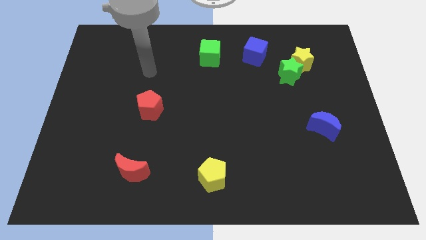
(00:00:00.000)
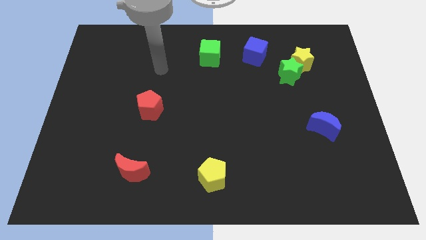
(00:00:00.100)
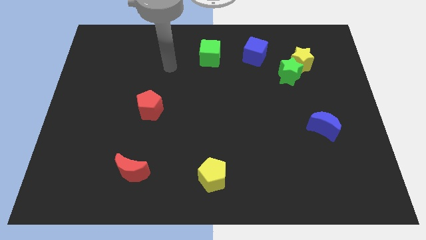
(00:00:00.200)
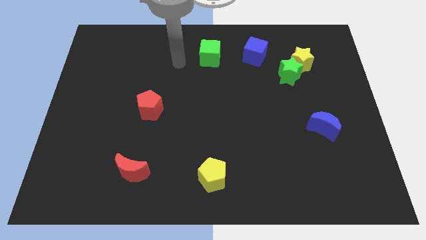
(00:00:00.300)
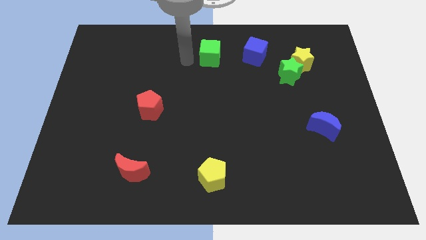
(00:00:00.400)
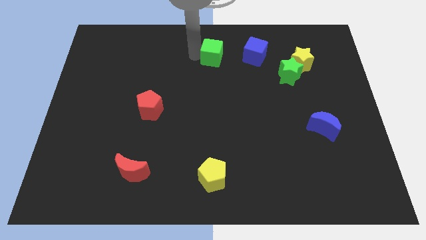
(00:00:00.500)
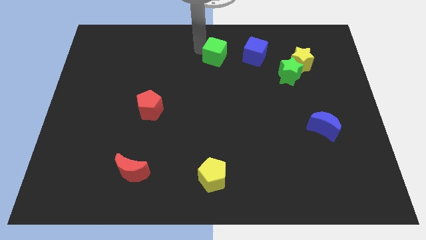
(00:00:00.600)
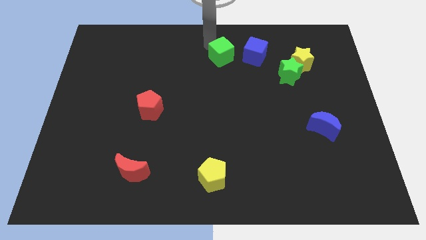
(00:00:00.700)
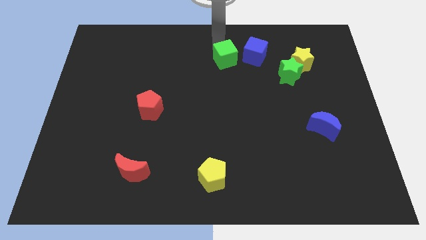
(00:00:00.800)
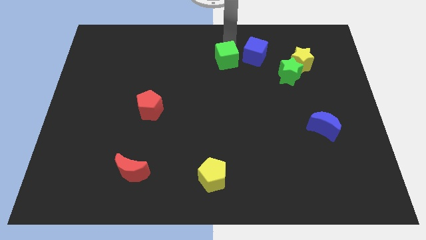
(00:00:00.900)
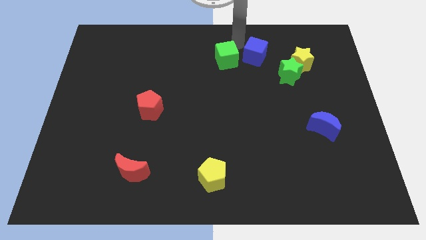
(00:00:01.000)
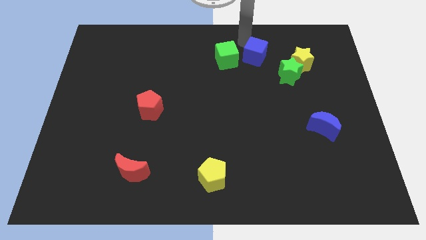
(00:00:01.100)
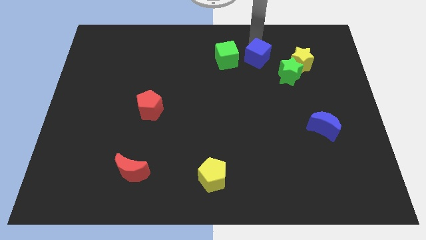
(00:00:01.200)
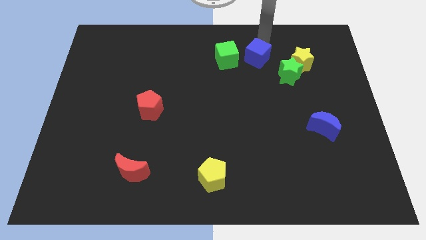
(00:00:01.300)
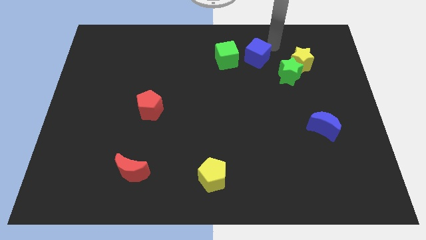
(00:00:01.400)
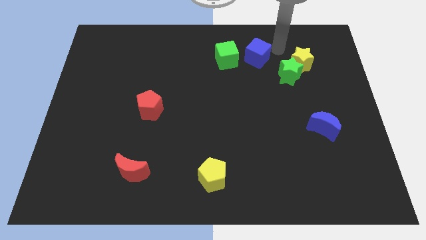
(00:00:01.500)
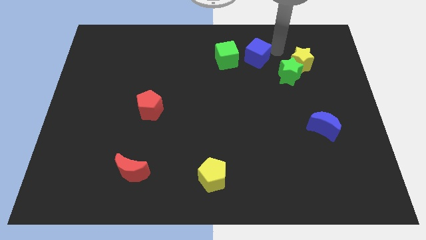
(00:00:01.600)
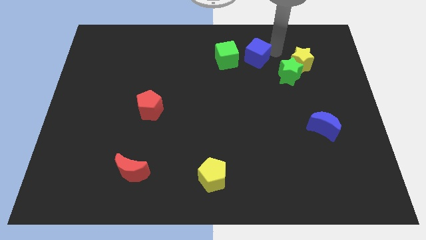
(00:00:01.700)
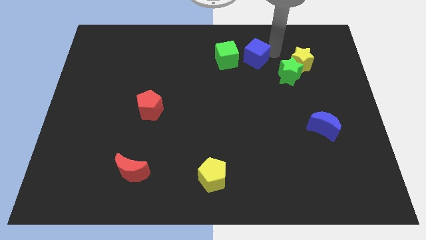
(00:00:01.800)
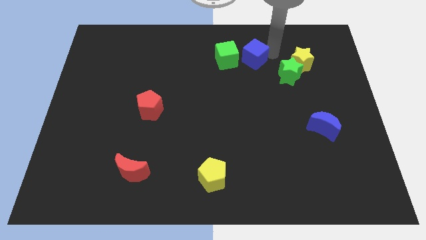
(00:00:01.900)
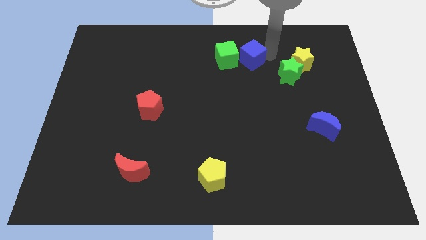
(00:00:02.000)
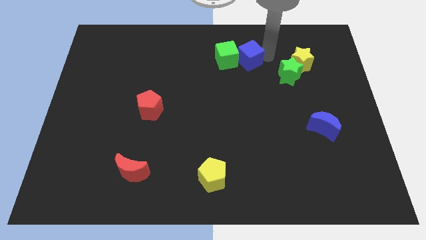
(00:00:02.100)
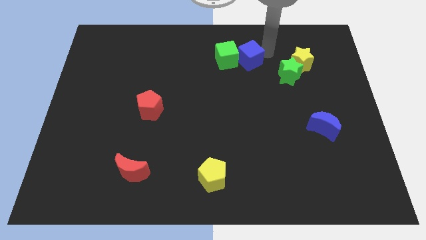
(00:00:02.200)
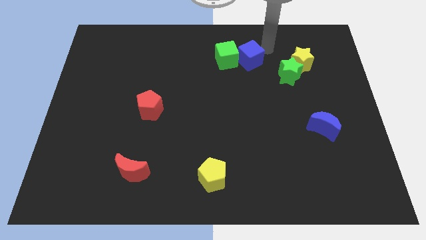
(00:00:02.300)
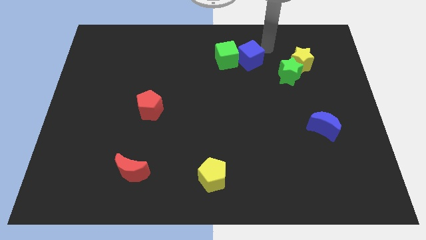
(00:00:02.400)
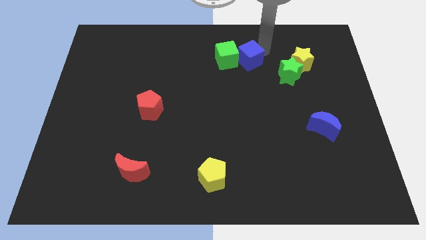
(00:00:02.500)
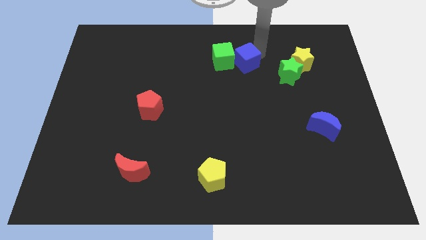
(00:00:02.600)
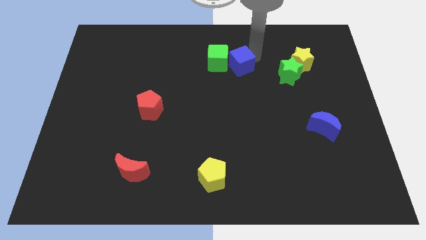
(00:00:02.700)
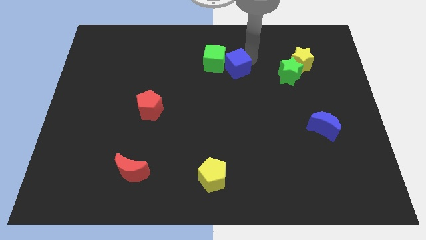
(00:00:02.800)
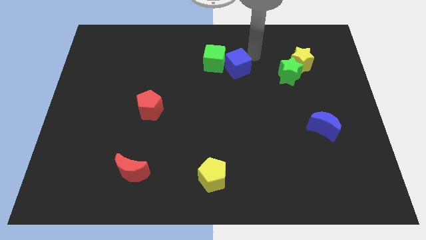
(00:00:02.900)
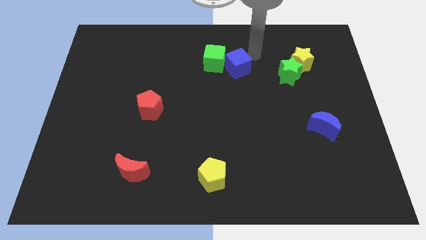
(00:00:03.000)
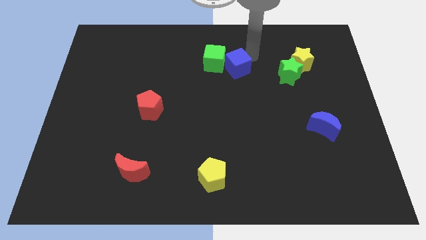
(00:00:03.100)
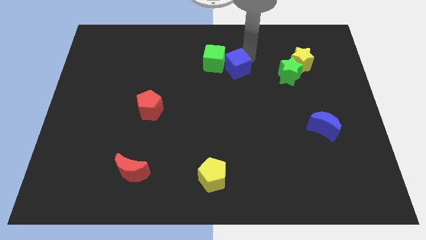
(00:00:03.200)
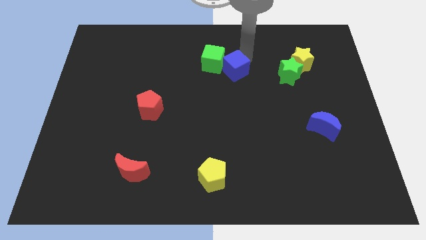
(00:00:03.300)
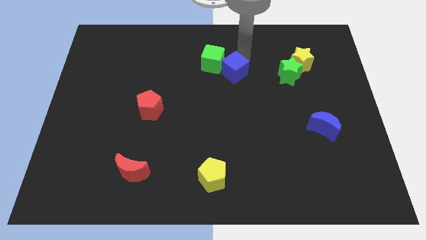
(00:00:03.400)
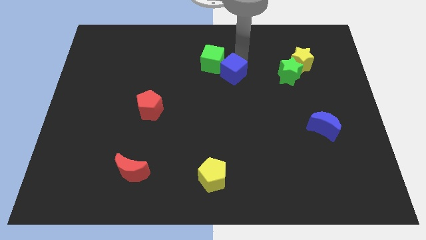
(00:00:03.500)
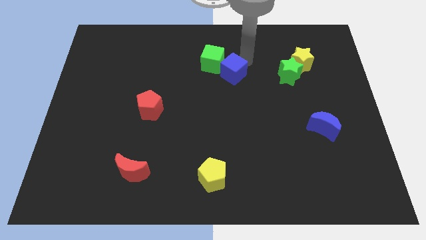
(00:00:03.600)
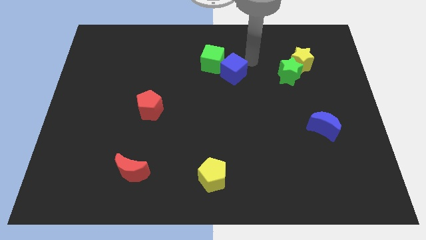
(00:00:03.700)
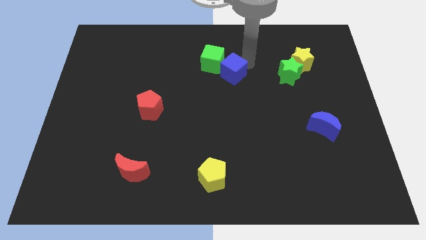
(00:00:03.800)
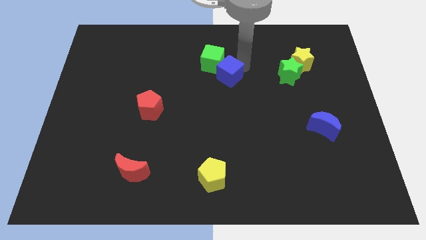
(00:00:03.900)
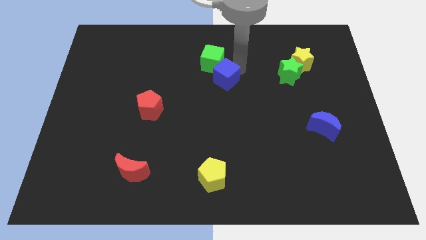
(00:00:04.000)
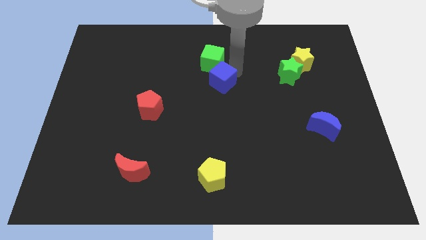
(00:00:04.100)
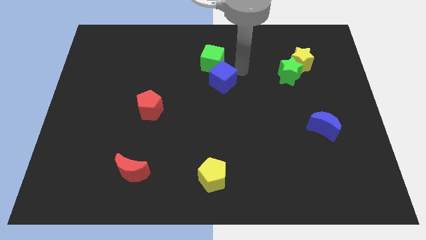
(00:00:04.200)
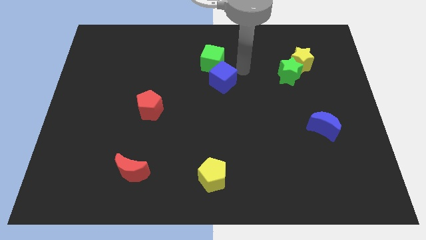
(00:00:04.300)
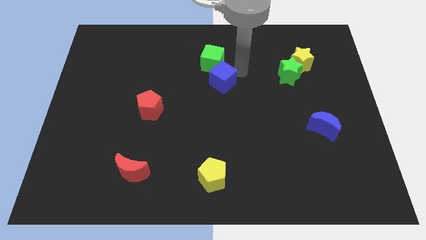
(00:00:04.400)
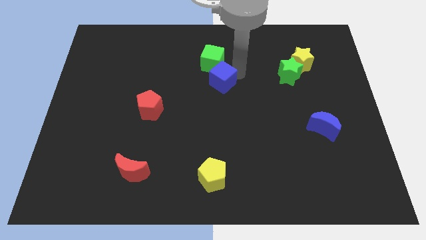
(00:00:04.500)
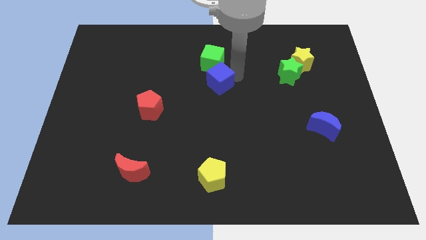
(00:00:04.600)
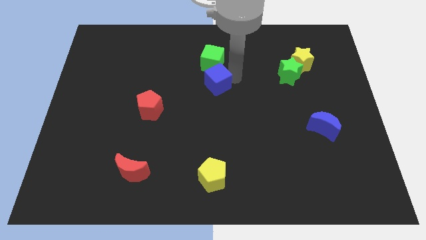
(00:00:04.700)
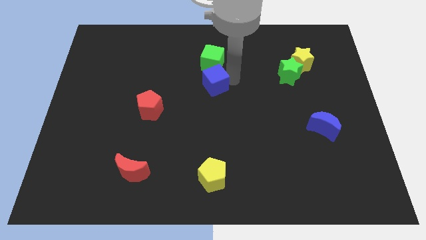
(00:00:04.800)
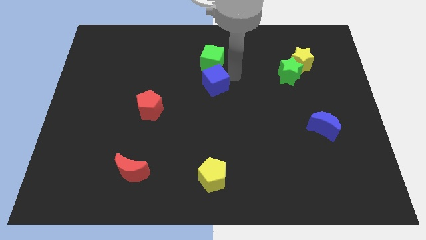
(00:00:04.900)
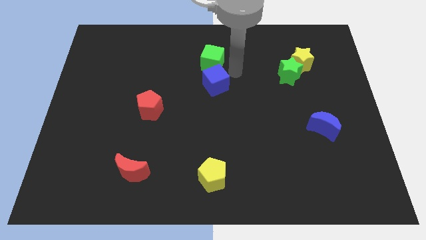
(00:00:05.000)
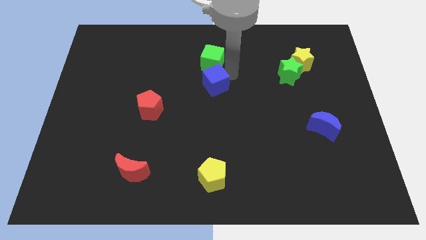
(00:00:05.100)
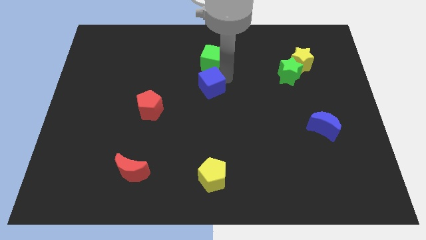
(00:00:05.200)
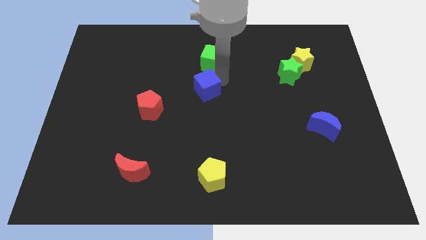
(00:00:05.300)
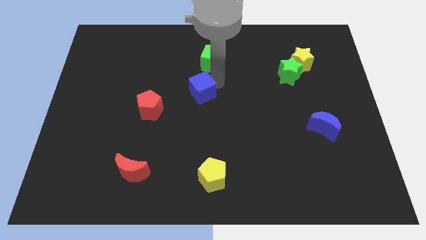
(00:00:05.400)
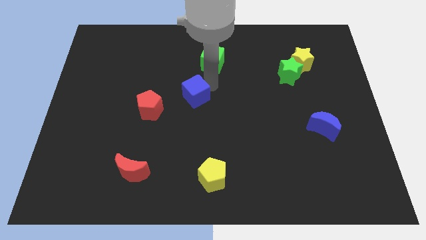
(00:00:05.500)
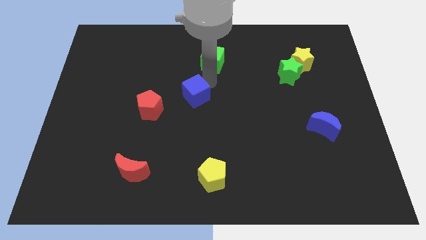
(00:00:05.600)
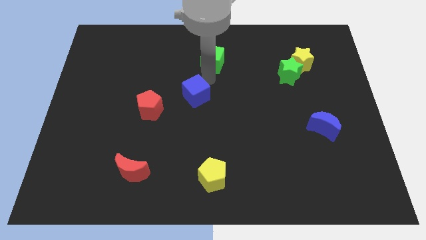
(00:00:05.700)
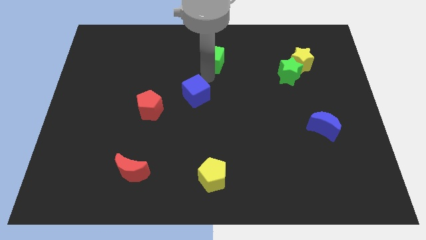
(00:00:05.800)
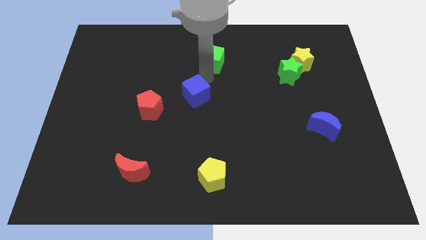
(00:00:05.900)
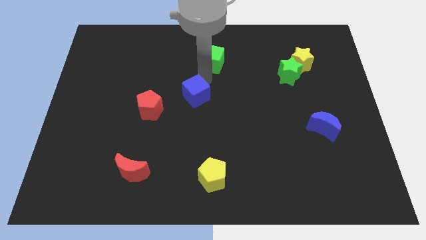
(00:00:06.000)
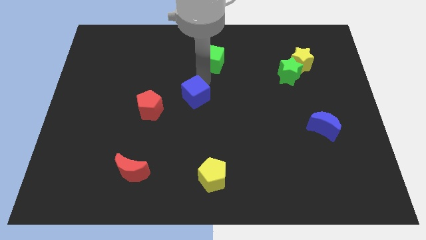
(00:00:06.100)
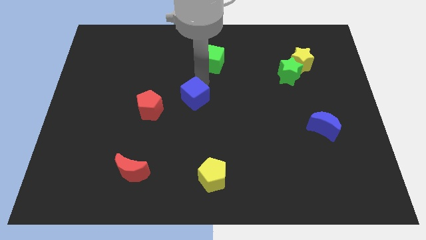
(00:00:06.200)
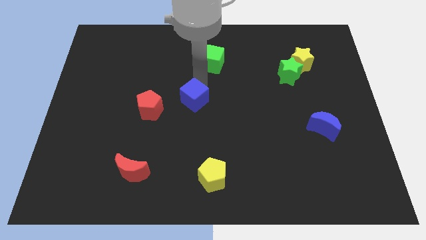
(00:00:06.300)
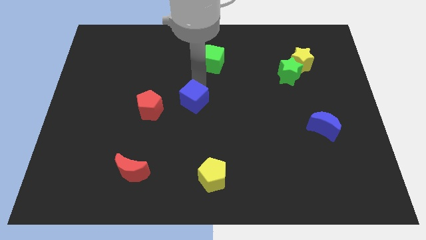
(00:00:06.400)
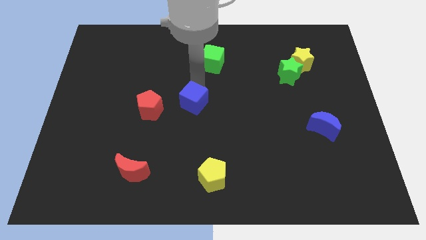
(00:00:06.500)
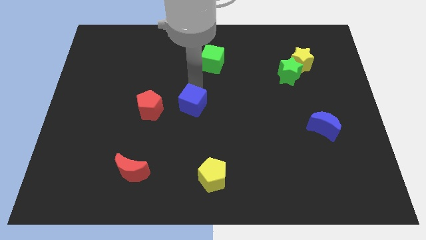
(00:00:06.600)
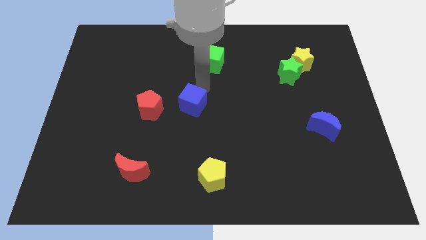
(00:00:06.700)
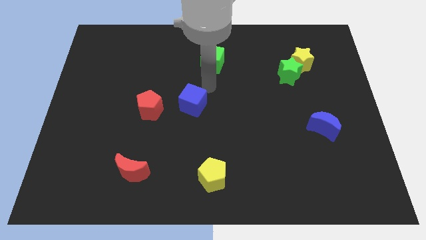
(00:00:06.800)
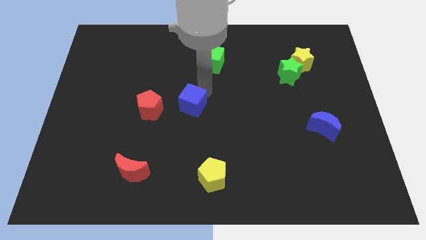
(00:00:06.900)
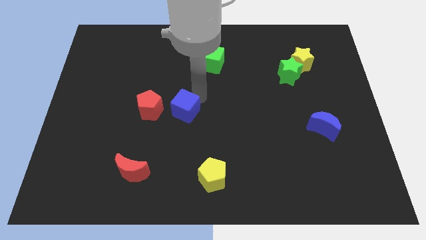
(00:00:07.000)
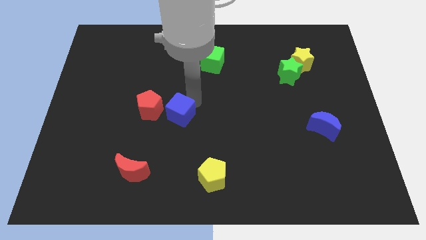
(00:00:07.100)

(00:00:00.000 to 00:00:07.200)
move the blue cube diagonally down and to the right of the red pentagon

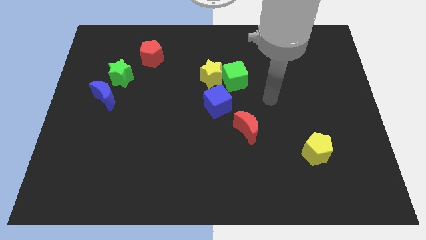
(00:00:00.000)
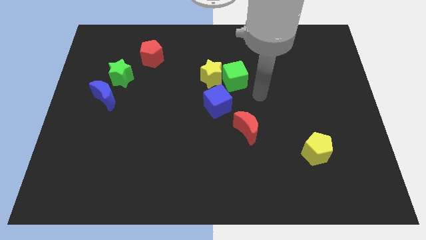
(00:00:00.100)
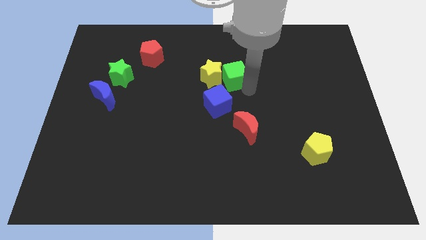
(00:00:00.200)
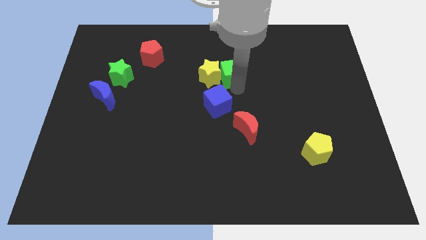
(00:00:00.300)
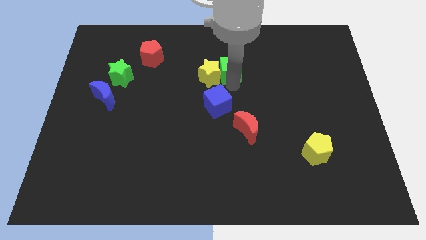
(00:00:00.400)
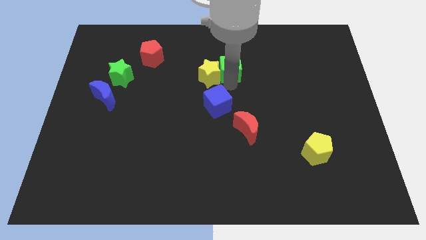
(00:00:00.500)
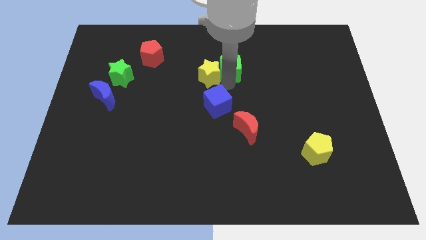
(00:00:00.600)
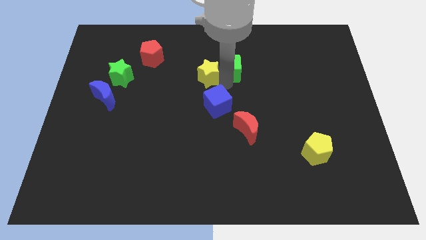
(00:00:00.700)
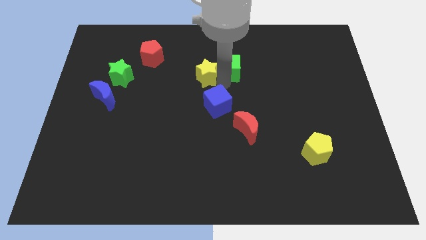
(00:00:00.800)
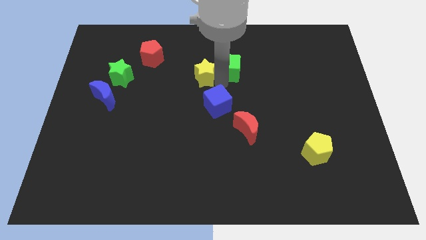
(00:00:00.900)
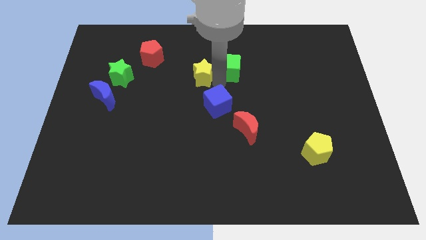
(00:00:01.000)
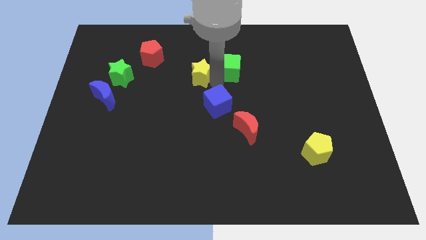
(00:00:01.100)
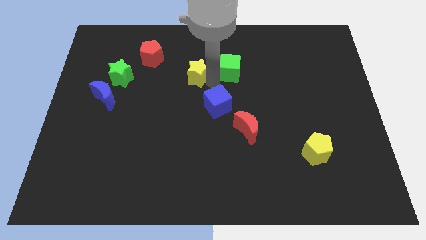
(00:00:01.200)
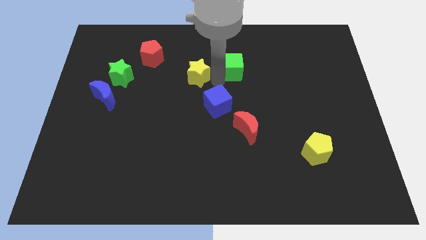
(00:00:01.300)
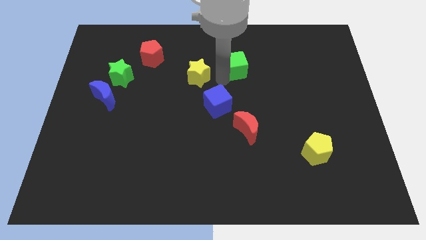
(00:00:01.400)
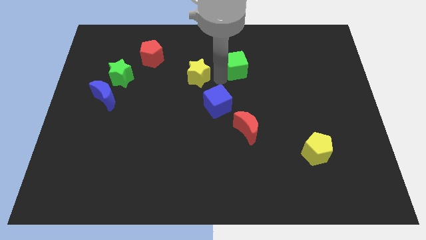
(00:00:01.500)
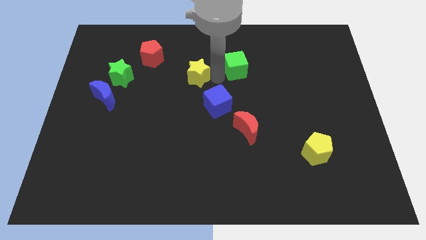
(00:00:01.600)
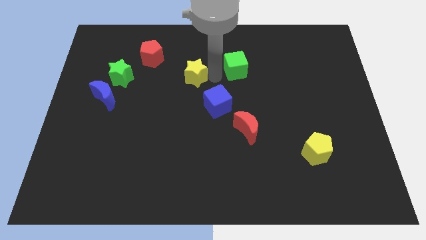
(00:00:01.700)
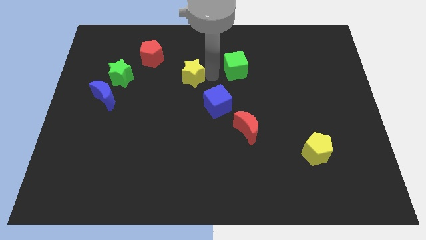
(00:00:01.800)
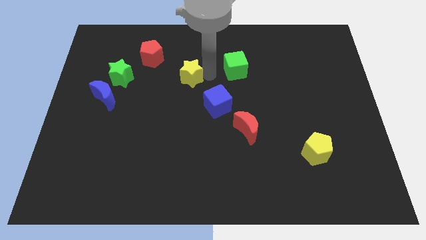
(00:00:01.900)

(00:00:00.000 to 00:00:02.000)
slide the yellow star to the bottom right side of the red pentagon
